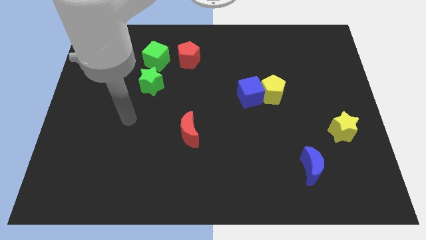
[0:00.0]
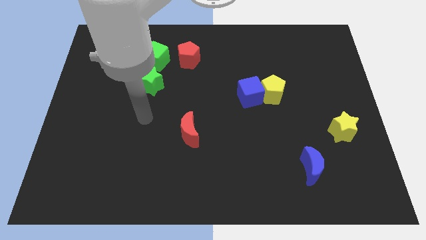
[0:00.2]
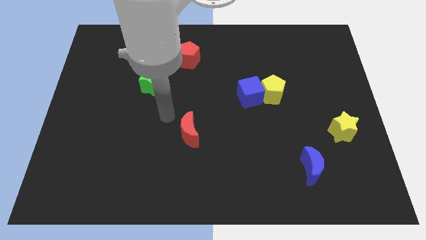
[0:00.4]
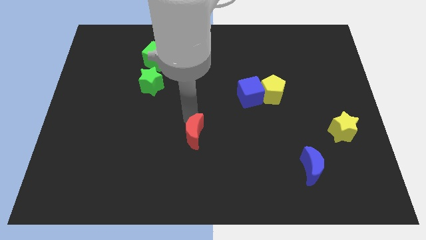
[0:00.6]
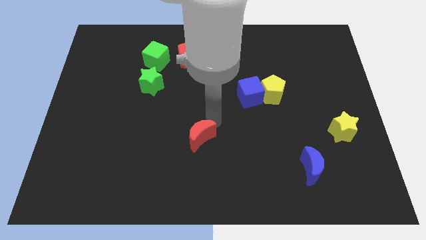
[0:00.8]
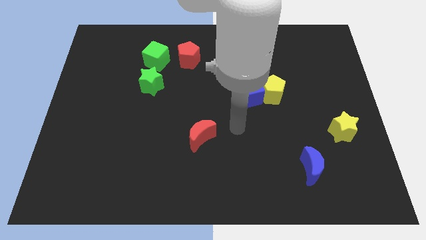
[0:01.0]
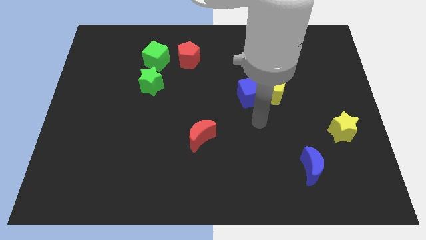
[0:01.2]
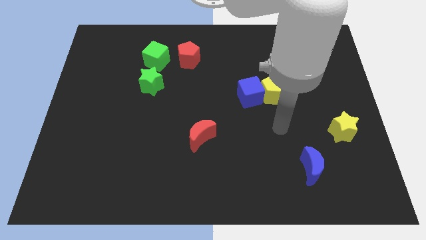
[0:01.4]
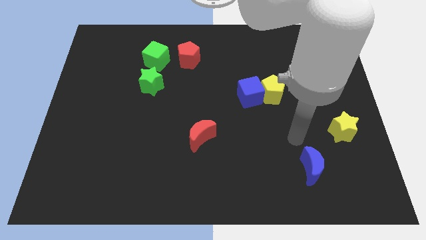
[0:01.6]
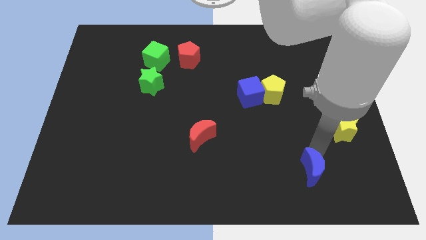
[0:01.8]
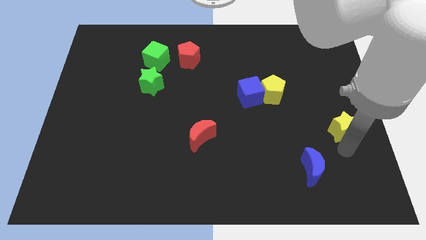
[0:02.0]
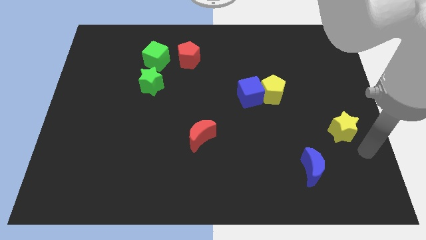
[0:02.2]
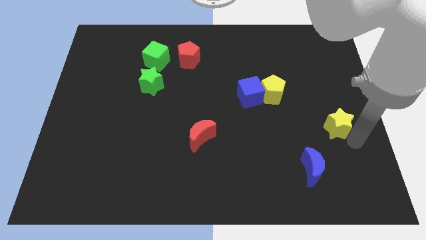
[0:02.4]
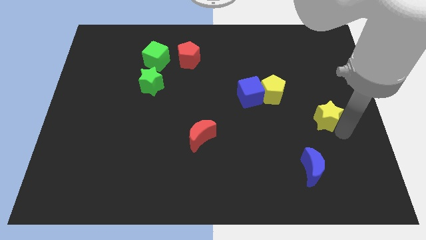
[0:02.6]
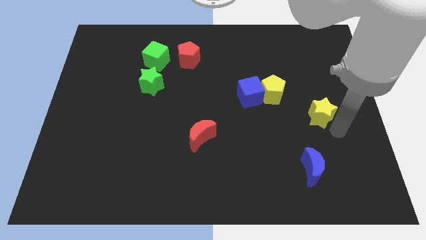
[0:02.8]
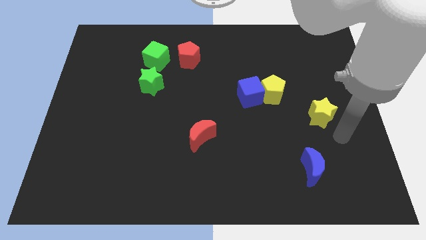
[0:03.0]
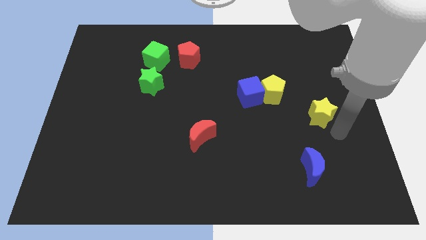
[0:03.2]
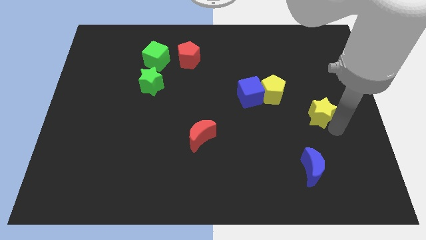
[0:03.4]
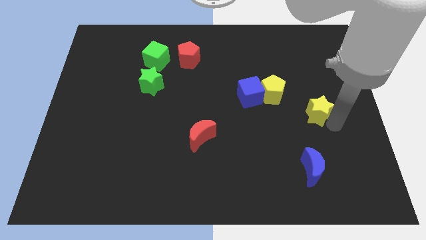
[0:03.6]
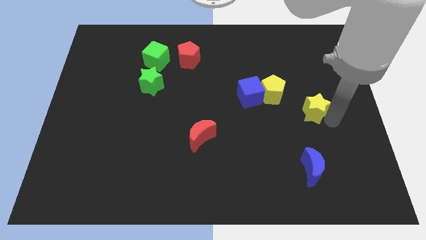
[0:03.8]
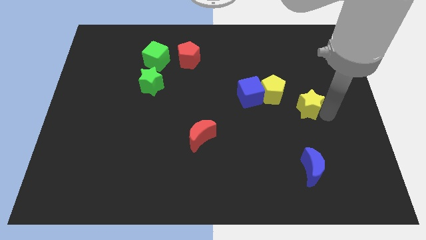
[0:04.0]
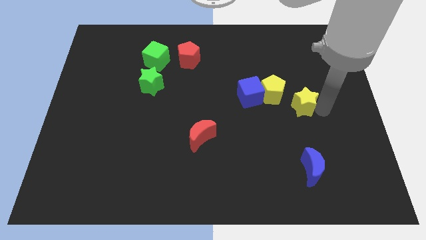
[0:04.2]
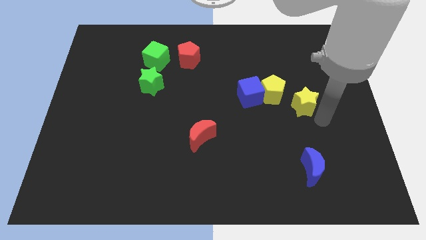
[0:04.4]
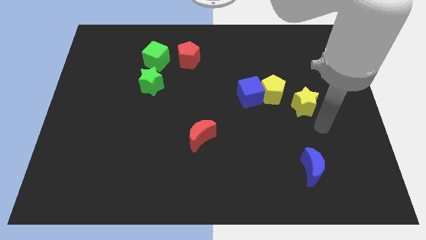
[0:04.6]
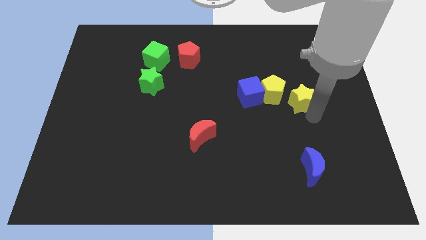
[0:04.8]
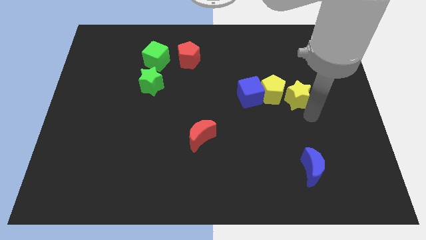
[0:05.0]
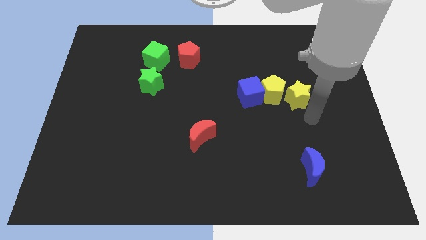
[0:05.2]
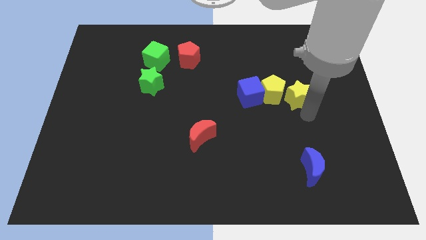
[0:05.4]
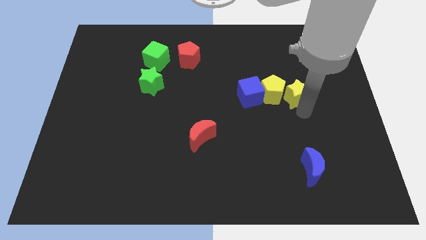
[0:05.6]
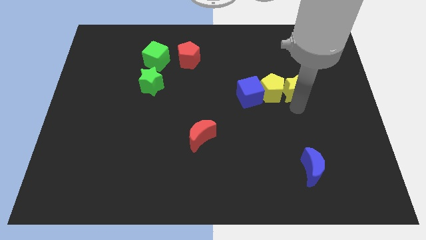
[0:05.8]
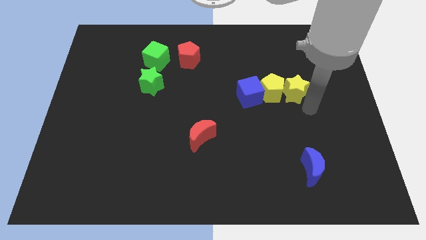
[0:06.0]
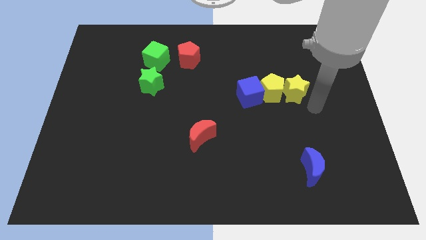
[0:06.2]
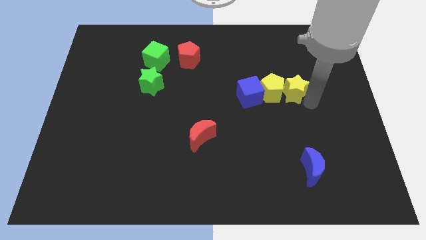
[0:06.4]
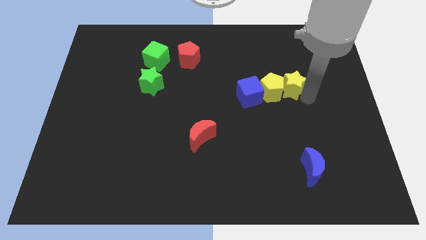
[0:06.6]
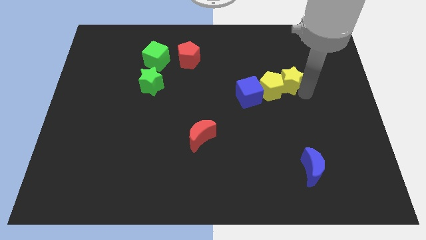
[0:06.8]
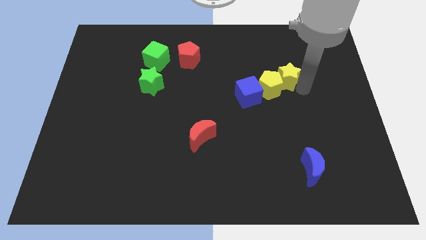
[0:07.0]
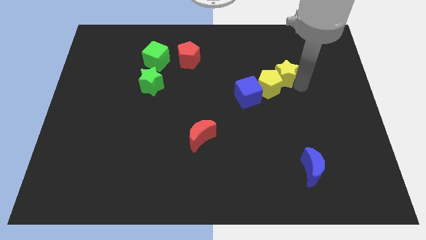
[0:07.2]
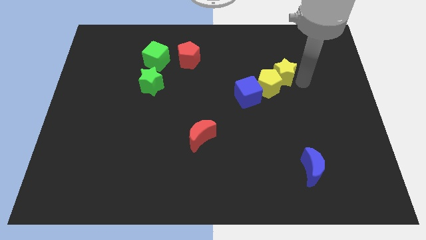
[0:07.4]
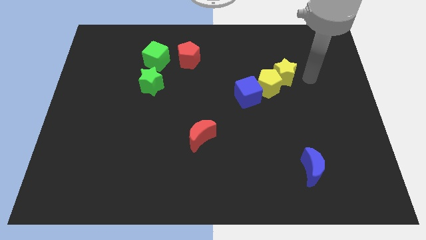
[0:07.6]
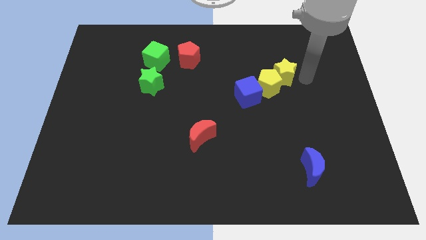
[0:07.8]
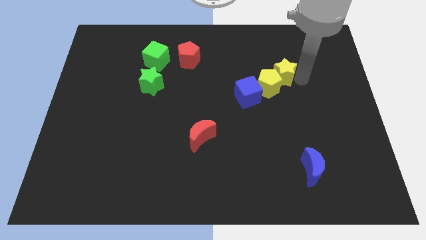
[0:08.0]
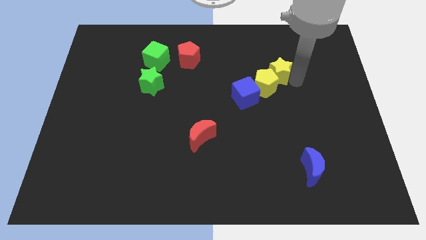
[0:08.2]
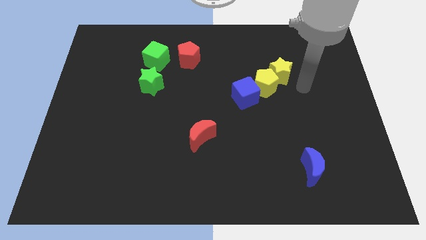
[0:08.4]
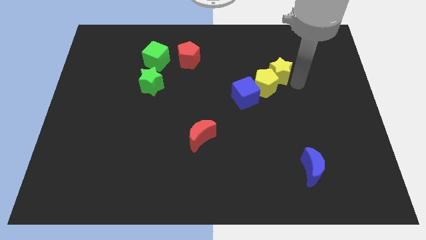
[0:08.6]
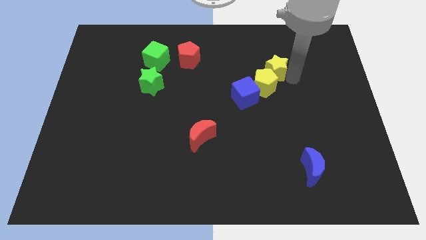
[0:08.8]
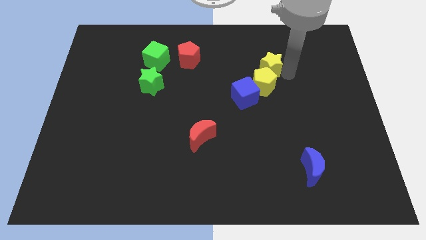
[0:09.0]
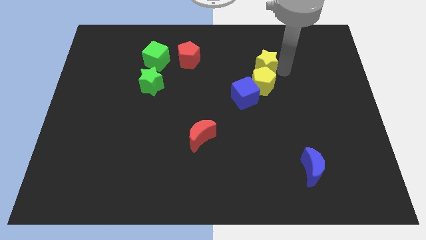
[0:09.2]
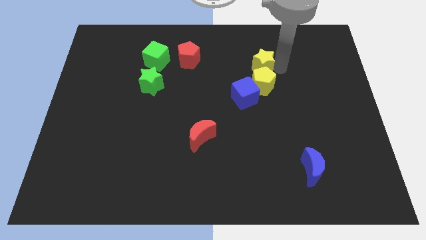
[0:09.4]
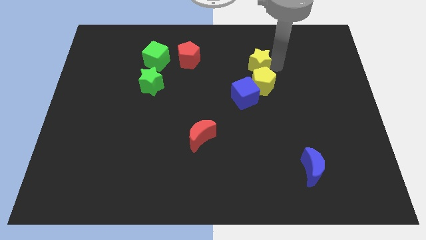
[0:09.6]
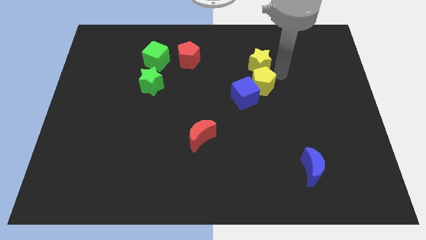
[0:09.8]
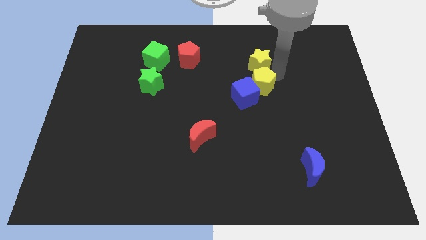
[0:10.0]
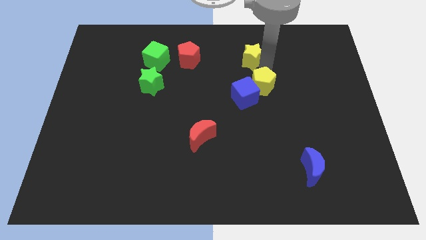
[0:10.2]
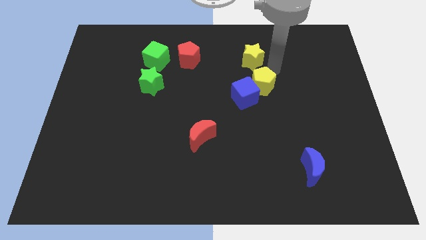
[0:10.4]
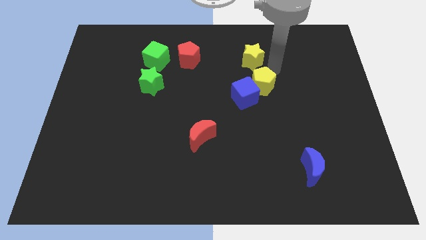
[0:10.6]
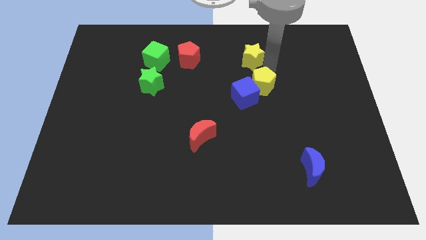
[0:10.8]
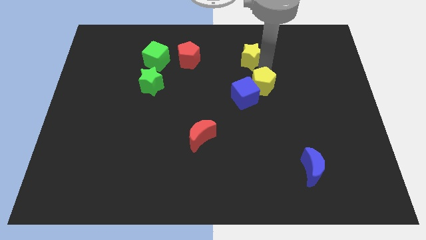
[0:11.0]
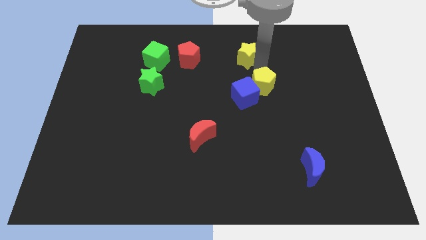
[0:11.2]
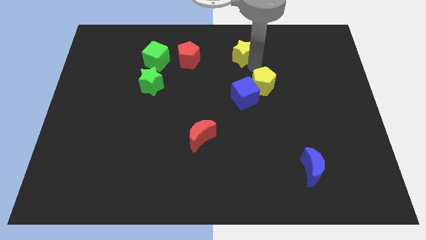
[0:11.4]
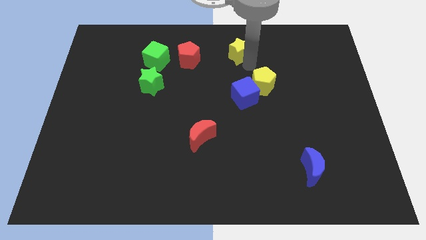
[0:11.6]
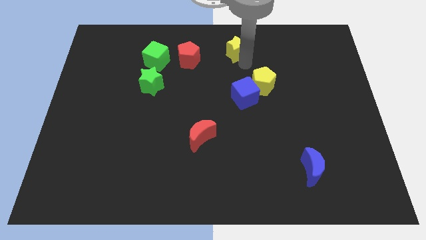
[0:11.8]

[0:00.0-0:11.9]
slide the yellow star to the towards your base

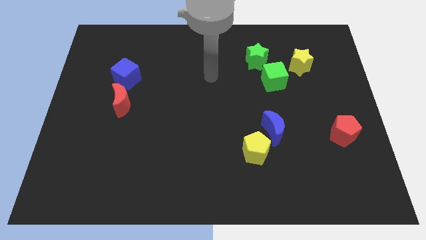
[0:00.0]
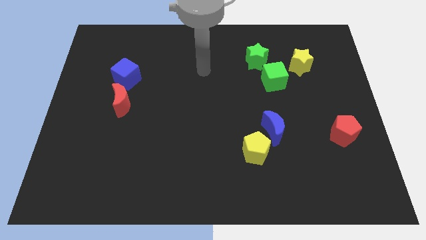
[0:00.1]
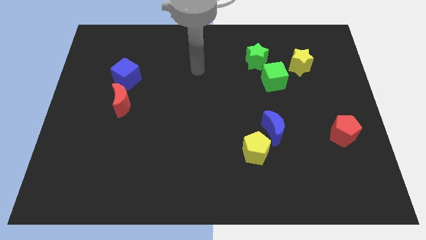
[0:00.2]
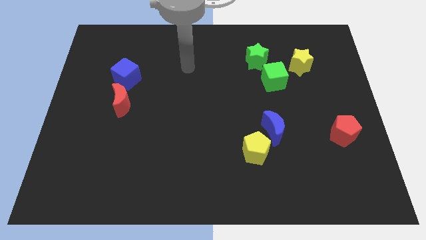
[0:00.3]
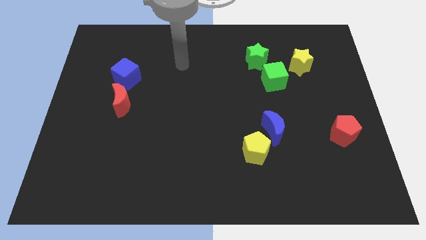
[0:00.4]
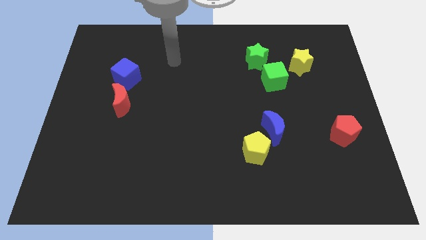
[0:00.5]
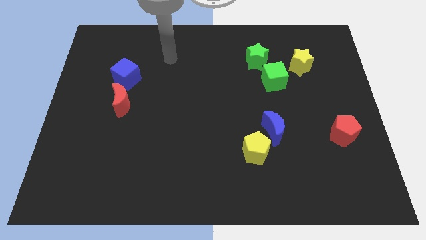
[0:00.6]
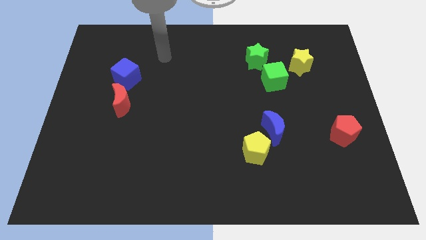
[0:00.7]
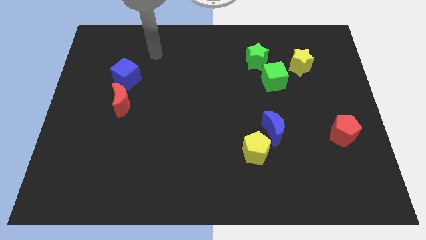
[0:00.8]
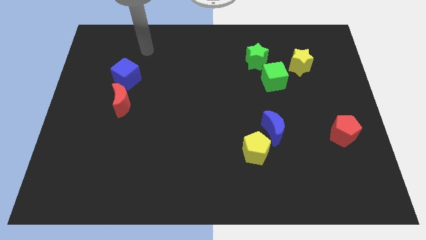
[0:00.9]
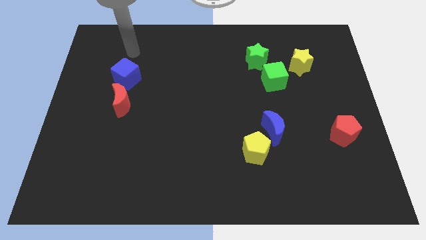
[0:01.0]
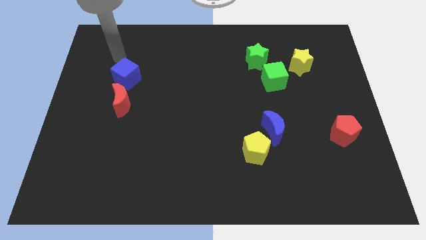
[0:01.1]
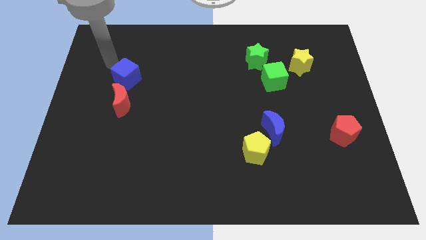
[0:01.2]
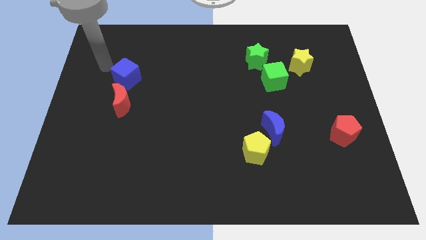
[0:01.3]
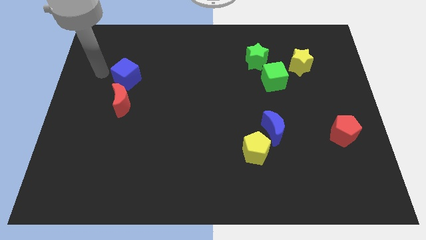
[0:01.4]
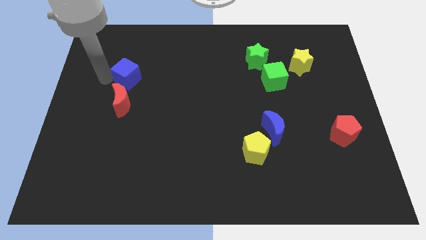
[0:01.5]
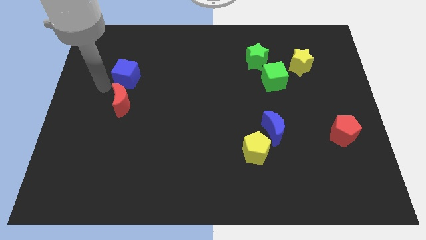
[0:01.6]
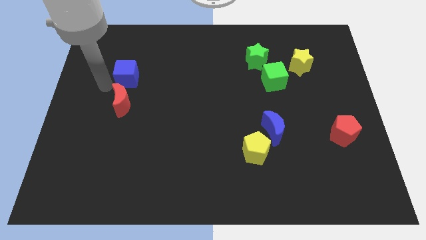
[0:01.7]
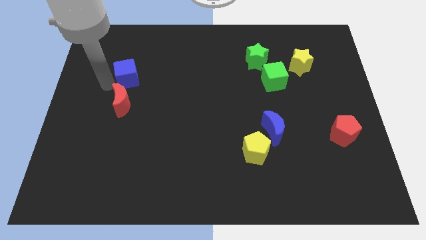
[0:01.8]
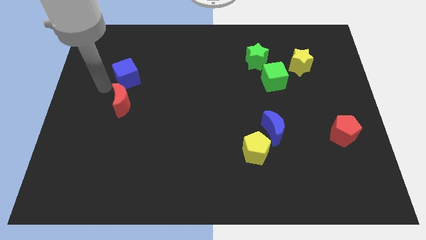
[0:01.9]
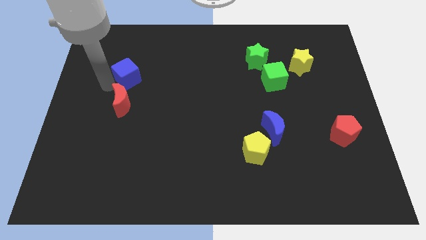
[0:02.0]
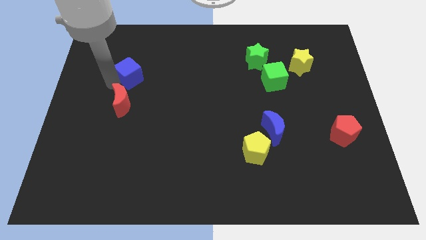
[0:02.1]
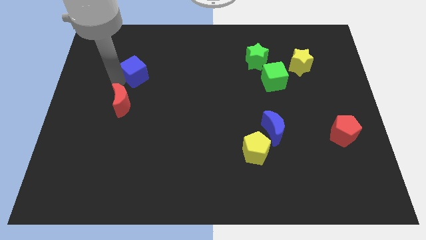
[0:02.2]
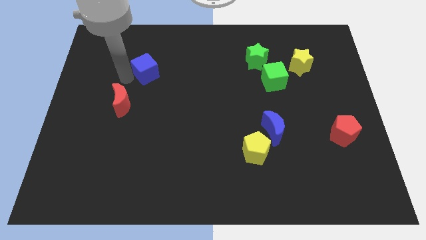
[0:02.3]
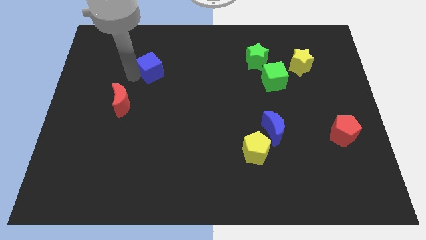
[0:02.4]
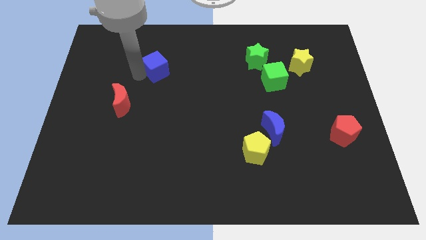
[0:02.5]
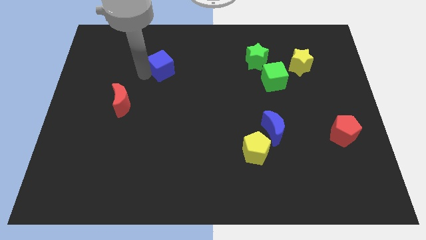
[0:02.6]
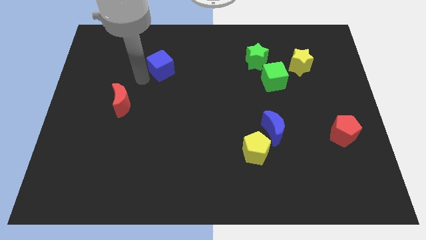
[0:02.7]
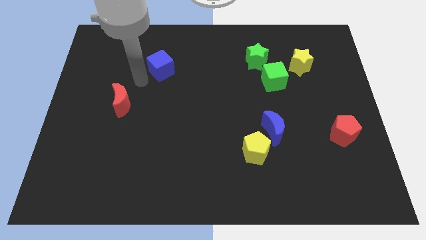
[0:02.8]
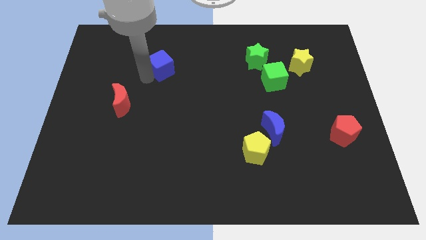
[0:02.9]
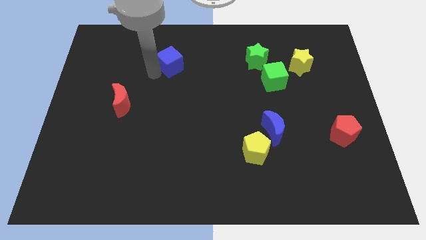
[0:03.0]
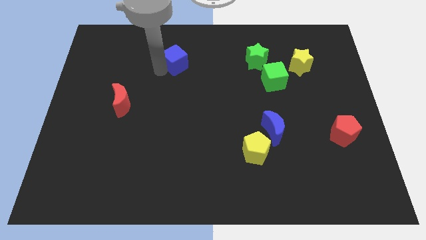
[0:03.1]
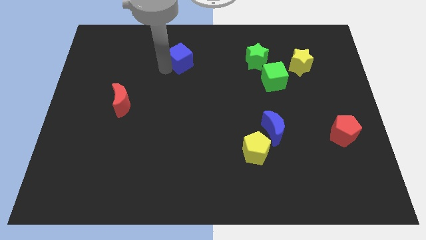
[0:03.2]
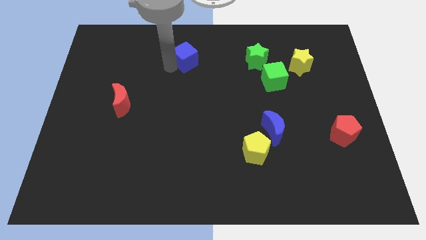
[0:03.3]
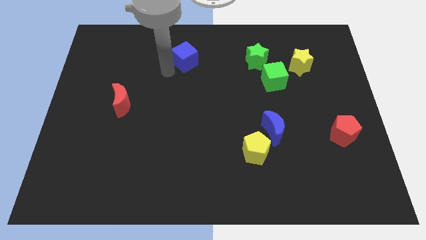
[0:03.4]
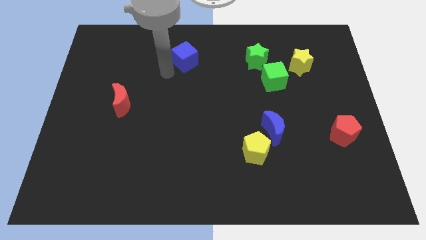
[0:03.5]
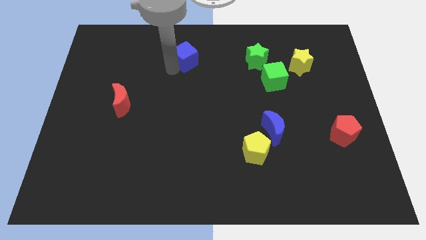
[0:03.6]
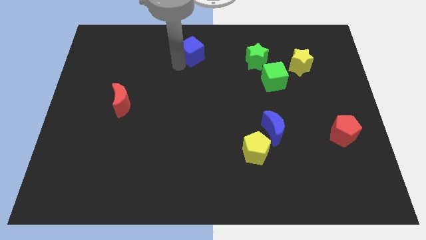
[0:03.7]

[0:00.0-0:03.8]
move the blue cube to the towards your base
